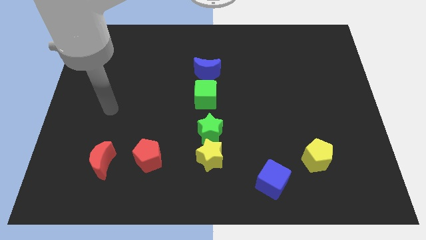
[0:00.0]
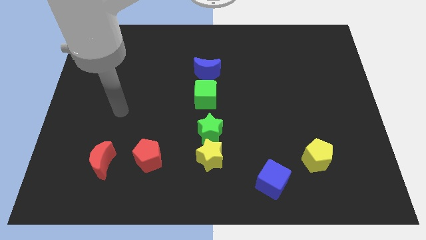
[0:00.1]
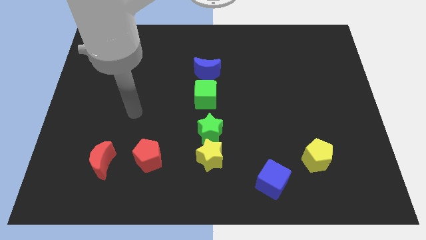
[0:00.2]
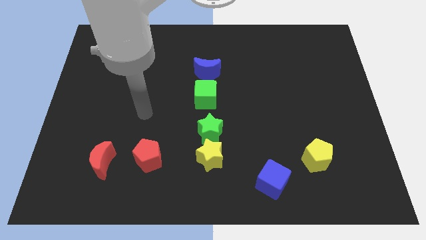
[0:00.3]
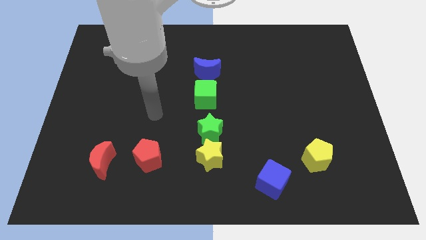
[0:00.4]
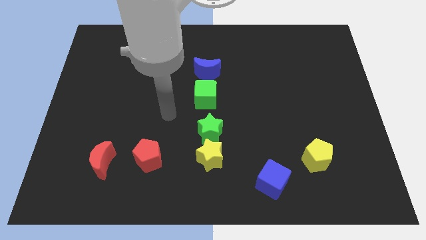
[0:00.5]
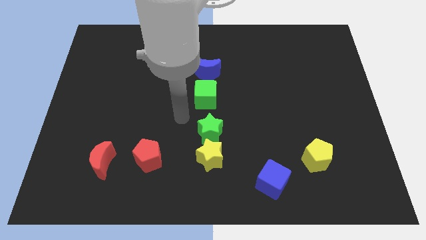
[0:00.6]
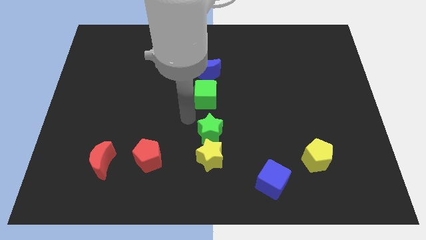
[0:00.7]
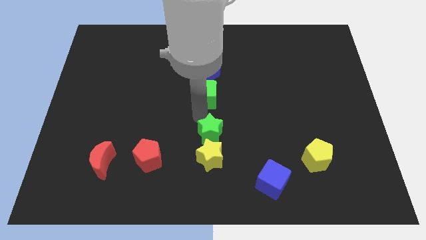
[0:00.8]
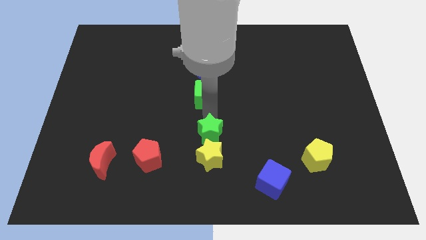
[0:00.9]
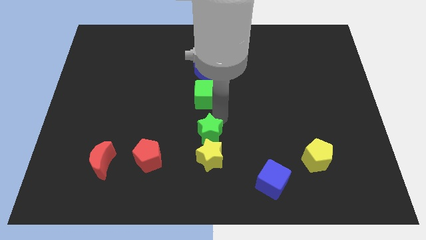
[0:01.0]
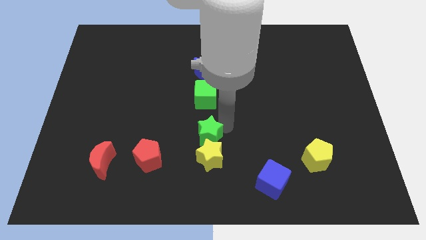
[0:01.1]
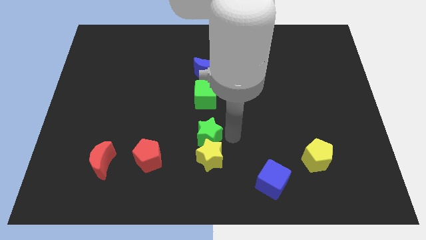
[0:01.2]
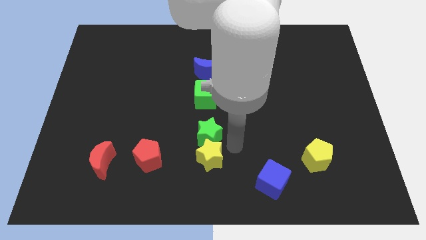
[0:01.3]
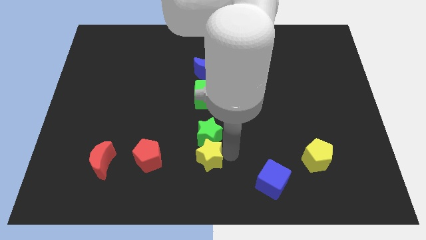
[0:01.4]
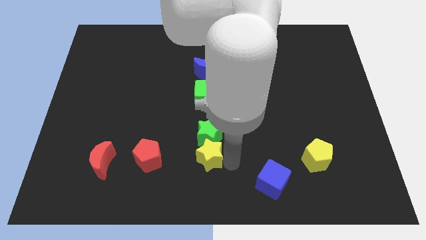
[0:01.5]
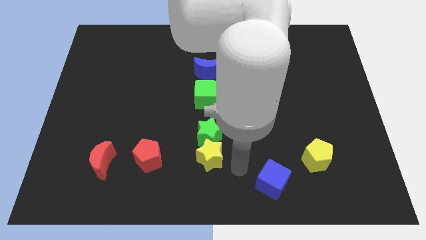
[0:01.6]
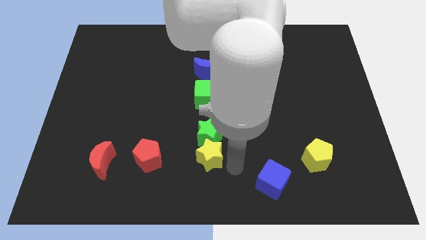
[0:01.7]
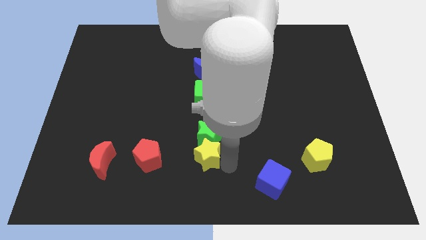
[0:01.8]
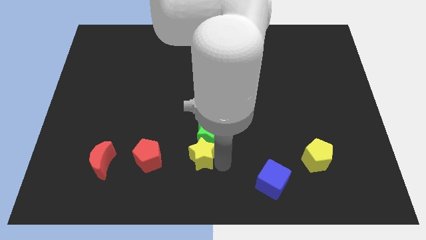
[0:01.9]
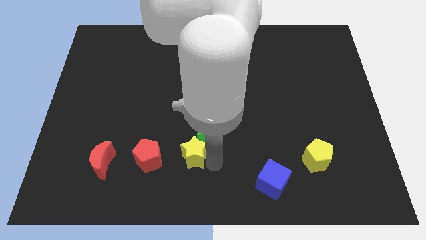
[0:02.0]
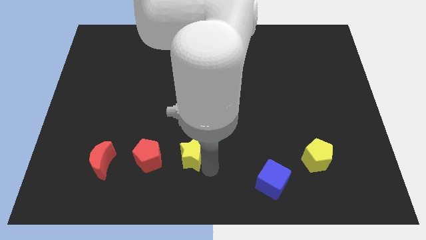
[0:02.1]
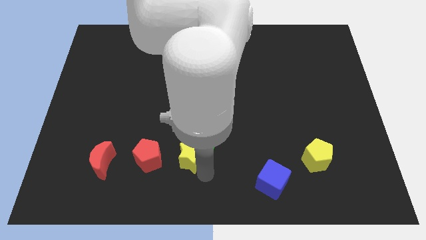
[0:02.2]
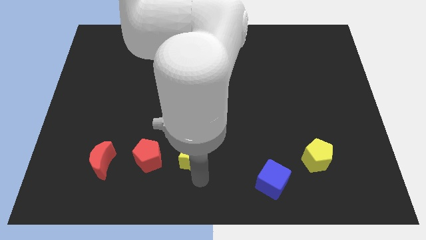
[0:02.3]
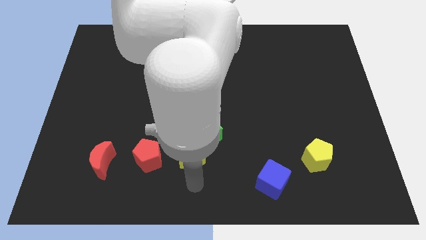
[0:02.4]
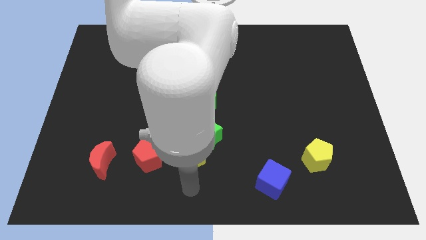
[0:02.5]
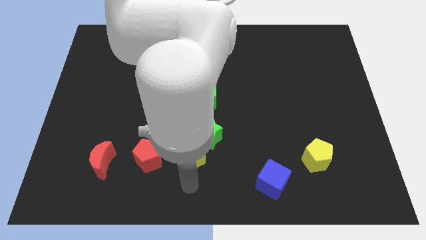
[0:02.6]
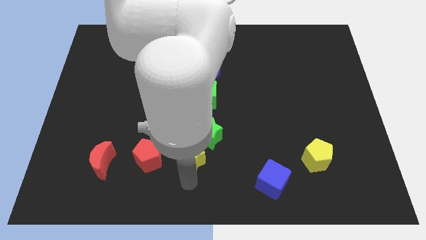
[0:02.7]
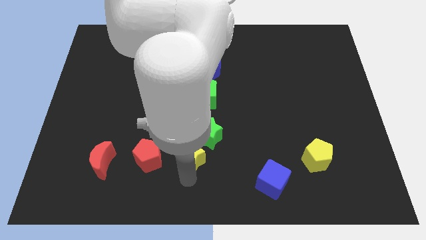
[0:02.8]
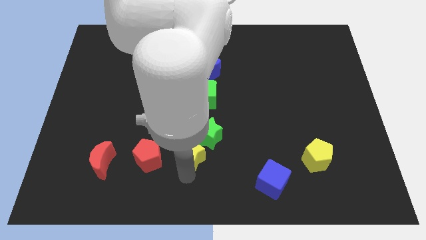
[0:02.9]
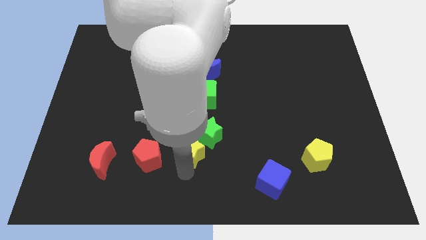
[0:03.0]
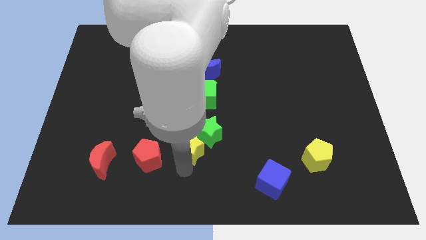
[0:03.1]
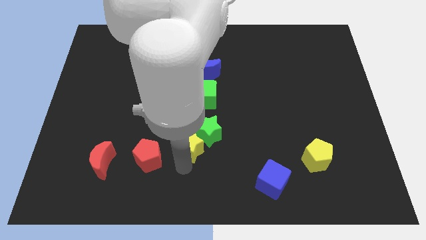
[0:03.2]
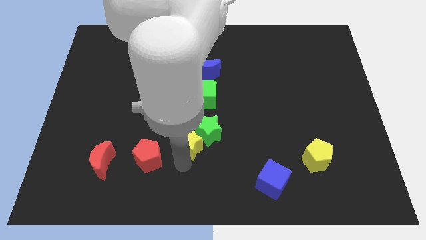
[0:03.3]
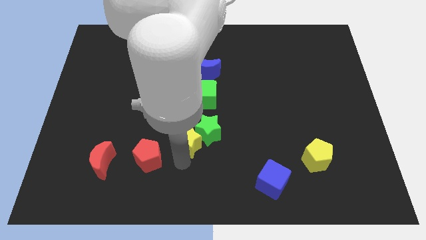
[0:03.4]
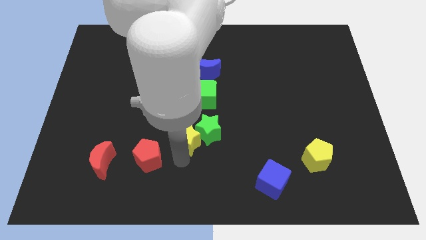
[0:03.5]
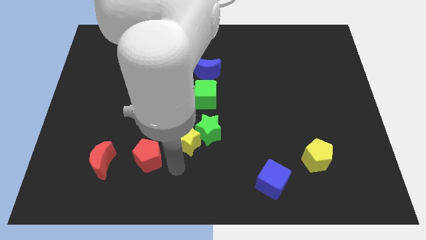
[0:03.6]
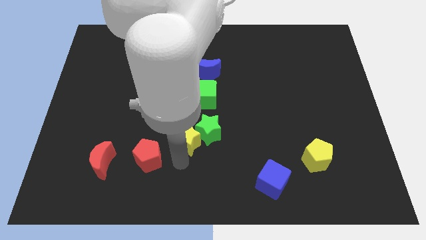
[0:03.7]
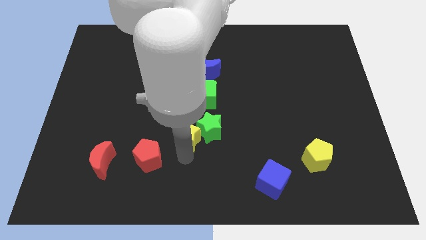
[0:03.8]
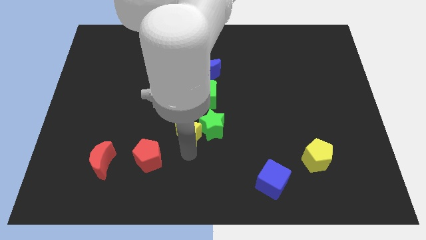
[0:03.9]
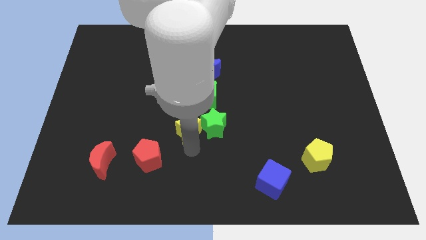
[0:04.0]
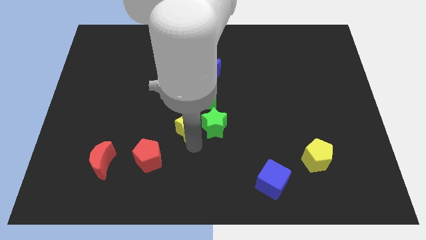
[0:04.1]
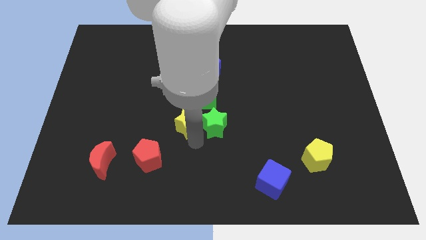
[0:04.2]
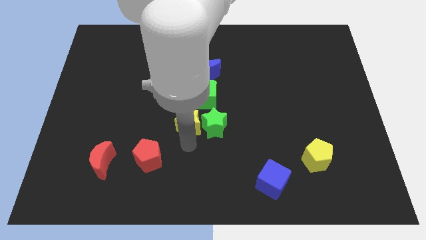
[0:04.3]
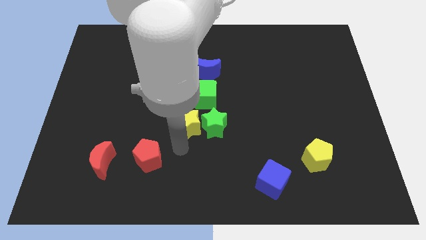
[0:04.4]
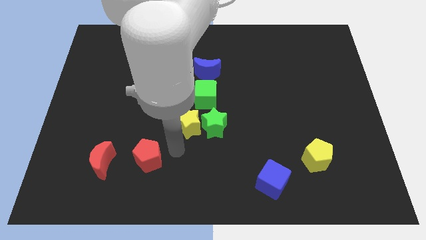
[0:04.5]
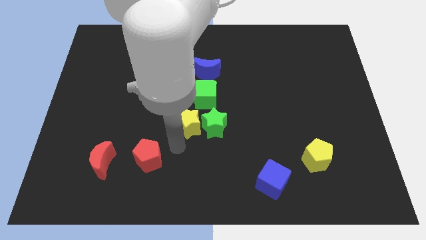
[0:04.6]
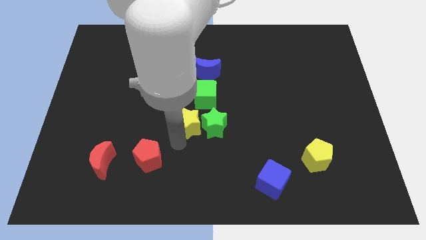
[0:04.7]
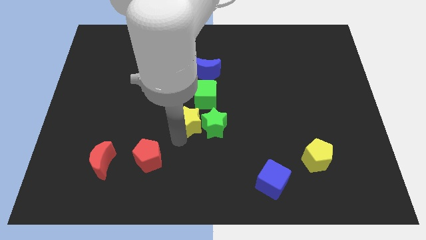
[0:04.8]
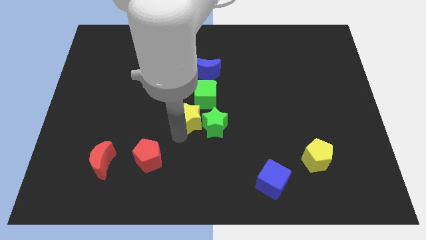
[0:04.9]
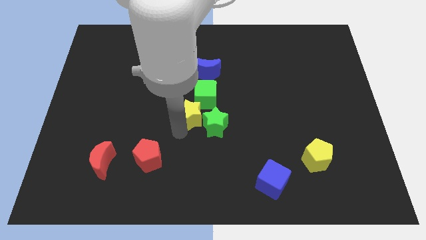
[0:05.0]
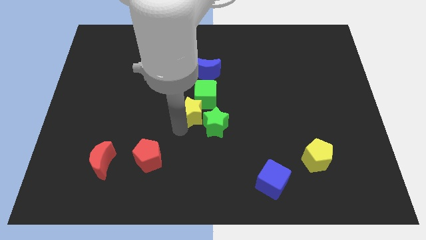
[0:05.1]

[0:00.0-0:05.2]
put the yellow star to the green cube

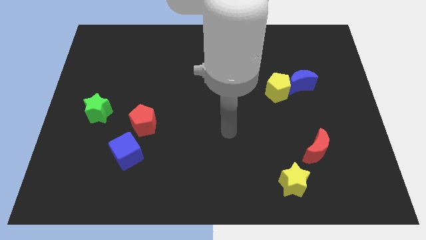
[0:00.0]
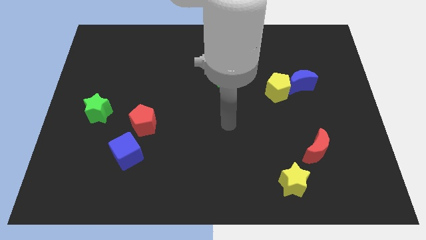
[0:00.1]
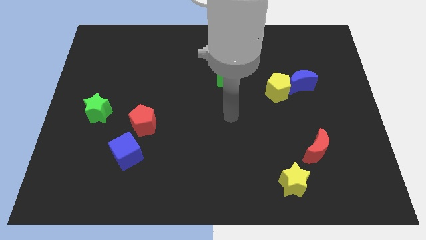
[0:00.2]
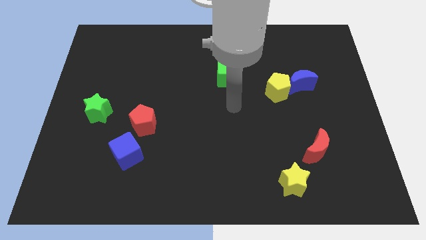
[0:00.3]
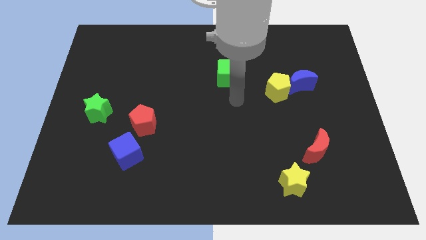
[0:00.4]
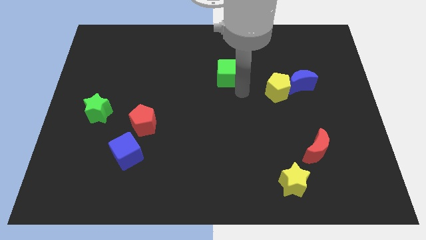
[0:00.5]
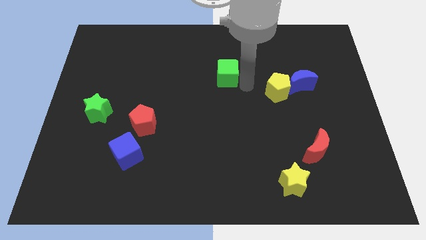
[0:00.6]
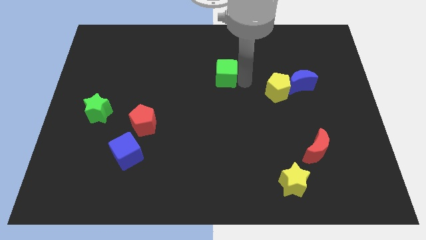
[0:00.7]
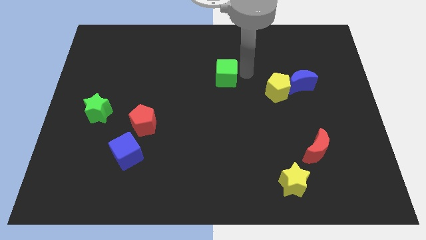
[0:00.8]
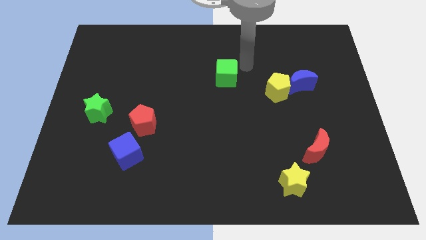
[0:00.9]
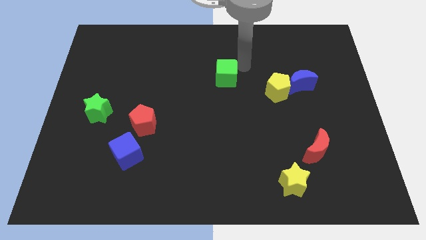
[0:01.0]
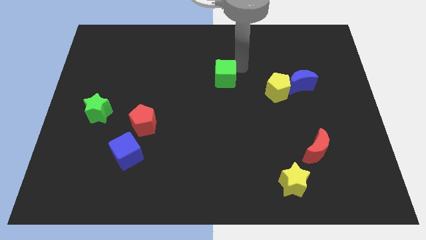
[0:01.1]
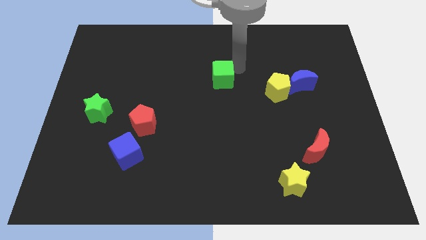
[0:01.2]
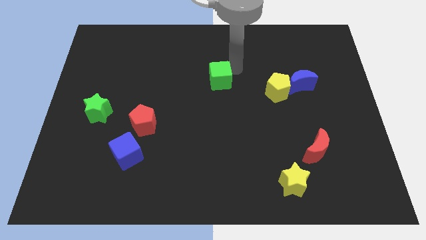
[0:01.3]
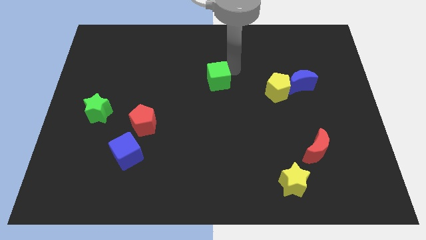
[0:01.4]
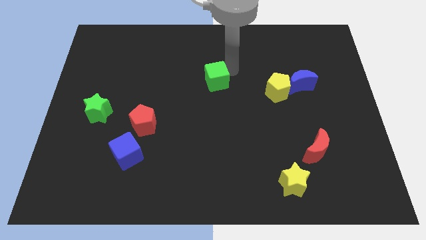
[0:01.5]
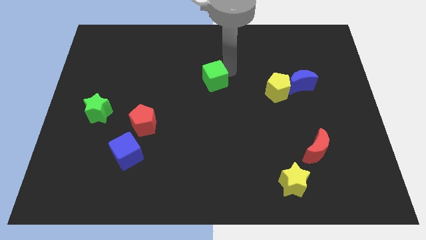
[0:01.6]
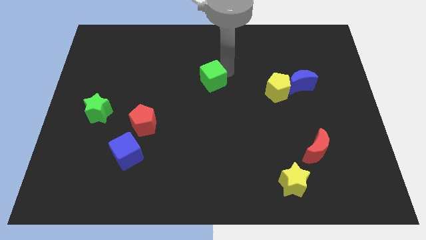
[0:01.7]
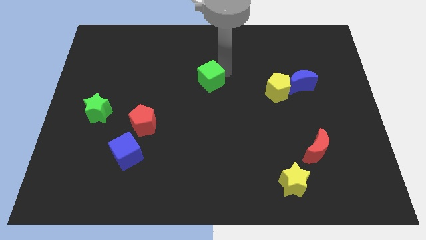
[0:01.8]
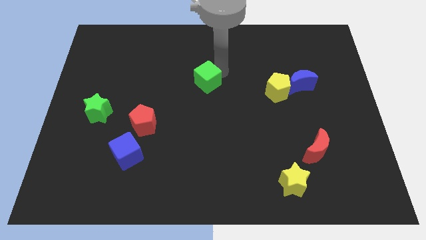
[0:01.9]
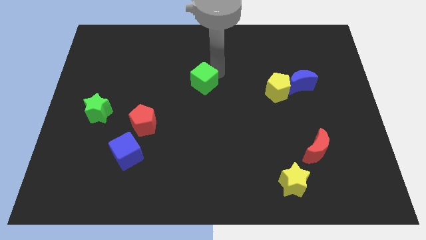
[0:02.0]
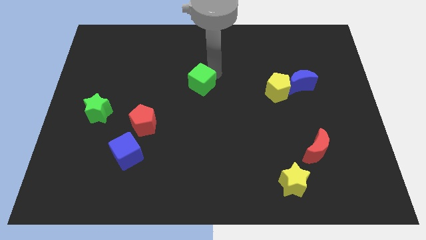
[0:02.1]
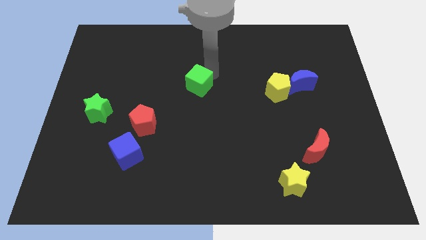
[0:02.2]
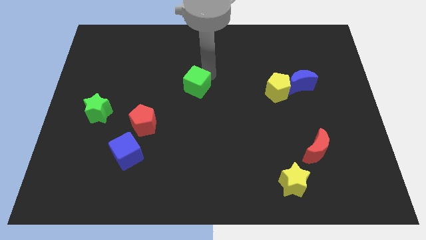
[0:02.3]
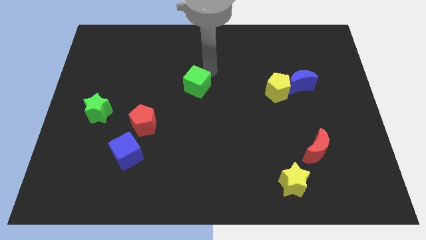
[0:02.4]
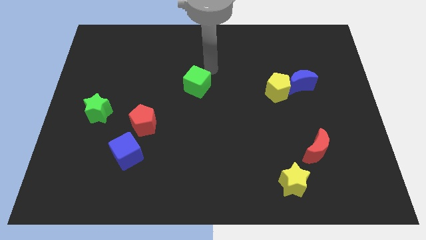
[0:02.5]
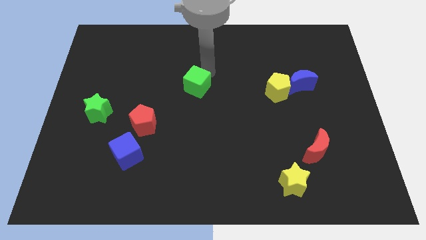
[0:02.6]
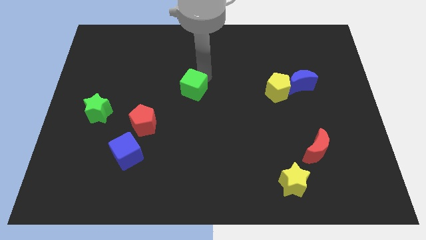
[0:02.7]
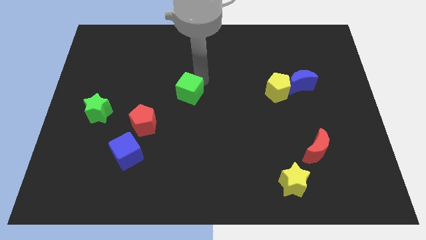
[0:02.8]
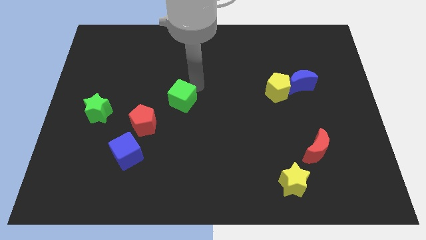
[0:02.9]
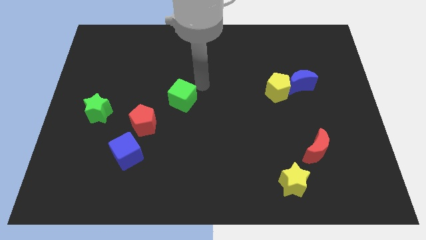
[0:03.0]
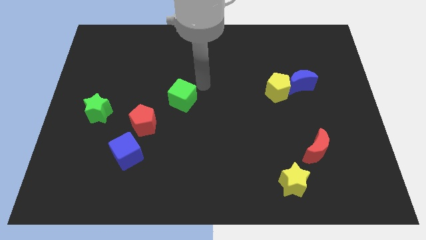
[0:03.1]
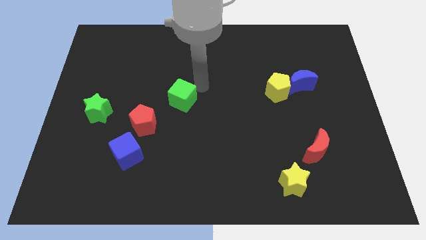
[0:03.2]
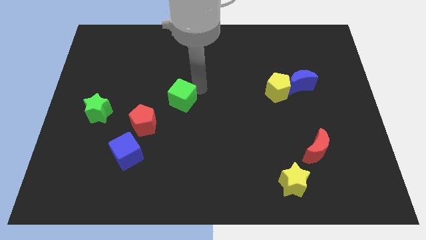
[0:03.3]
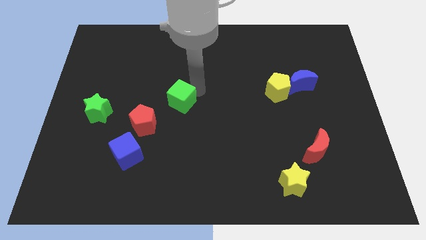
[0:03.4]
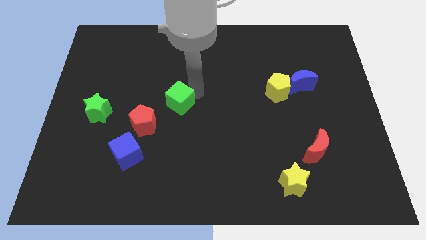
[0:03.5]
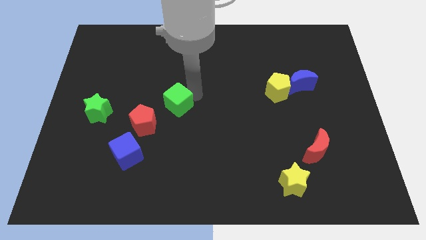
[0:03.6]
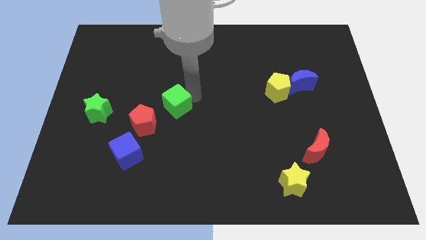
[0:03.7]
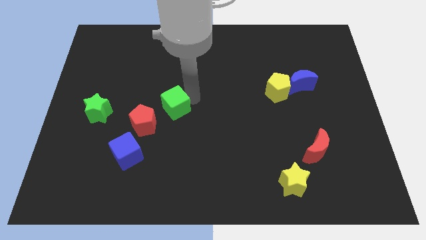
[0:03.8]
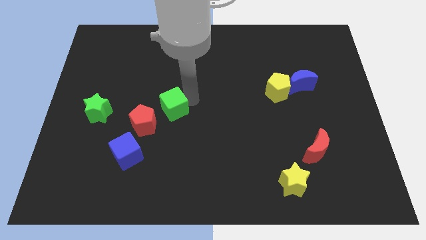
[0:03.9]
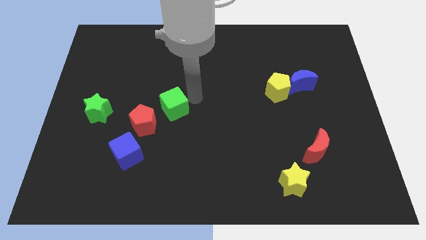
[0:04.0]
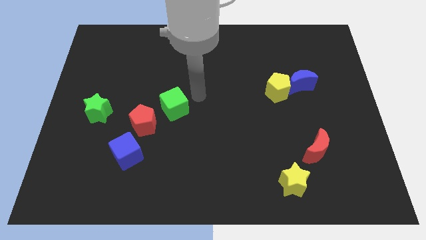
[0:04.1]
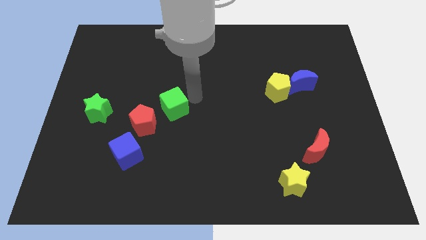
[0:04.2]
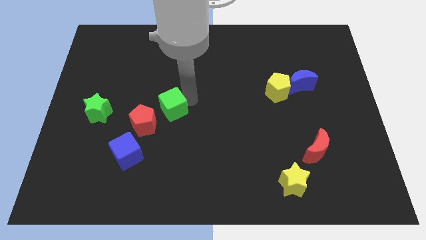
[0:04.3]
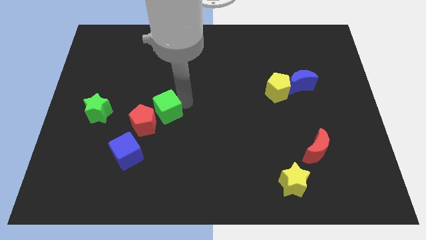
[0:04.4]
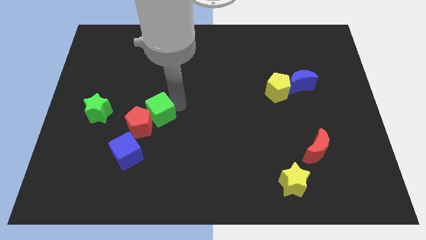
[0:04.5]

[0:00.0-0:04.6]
slide the green cube to the red pentagon
